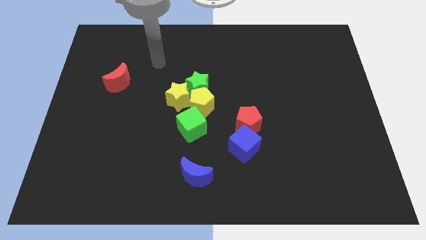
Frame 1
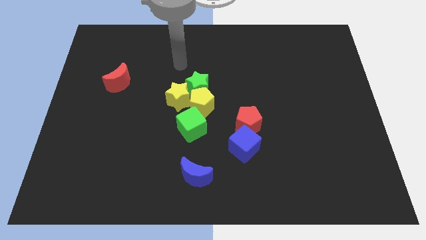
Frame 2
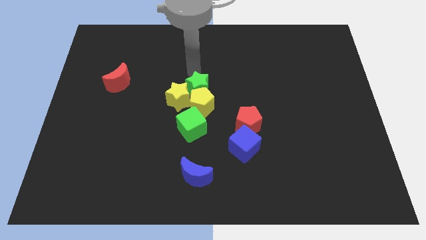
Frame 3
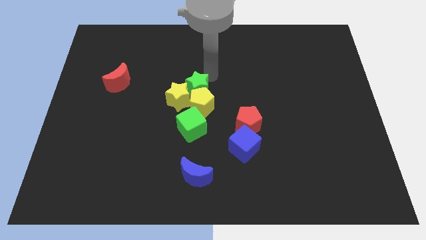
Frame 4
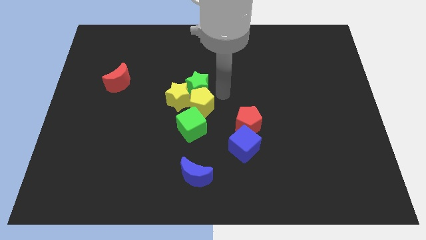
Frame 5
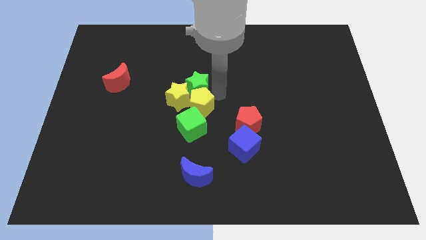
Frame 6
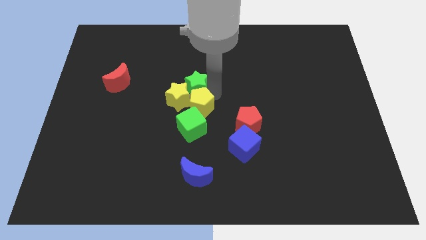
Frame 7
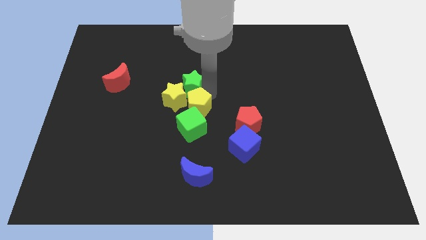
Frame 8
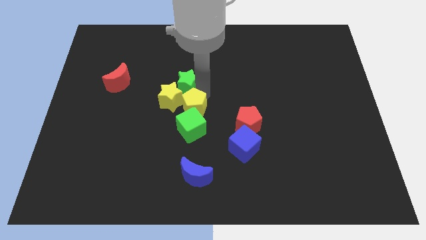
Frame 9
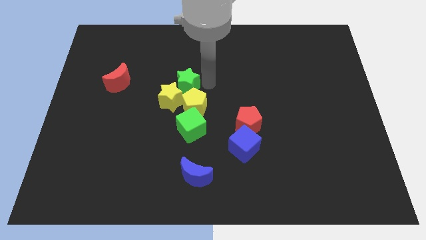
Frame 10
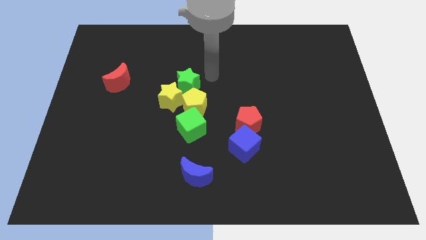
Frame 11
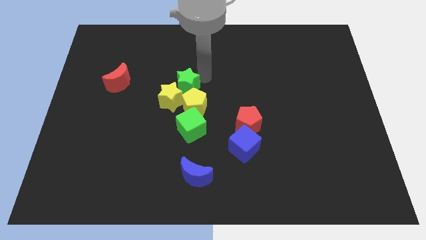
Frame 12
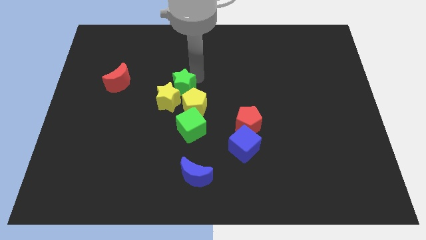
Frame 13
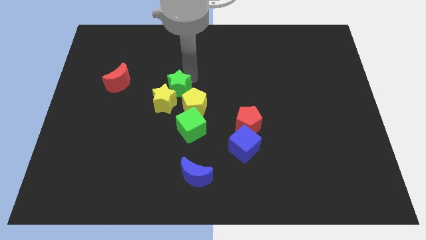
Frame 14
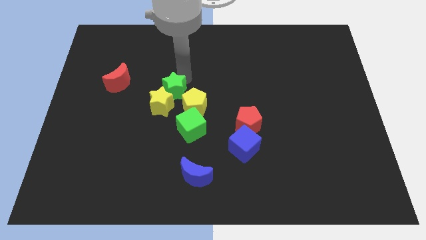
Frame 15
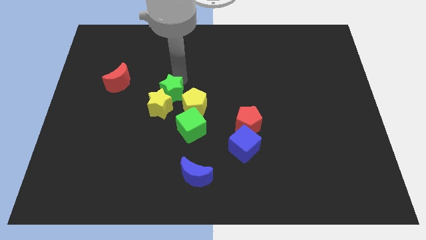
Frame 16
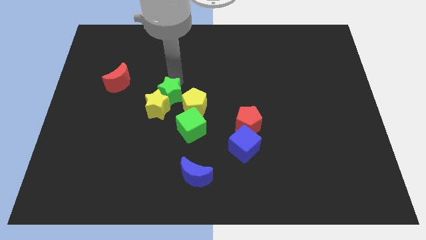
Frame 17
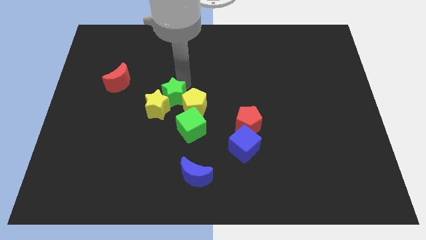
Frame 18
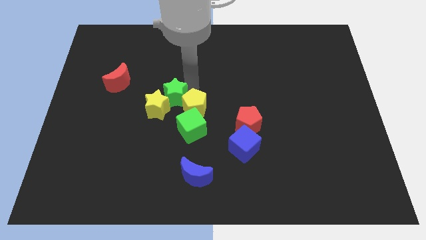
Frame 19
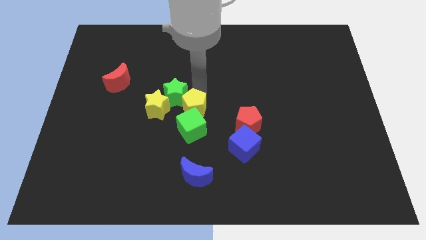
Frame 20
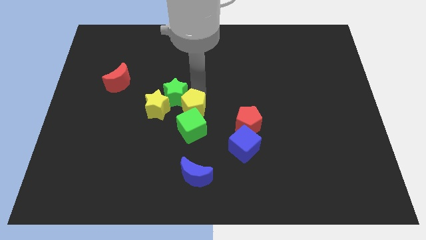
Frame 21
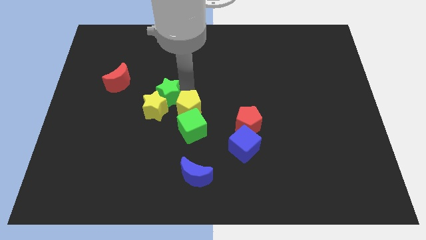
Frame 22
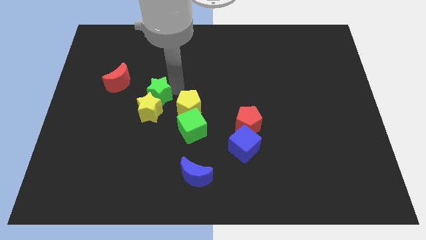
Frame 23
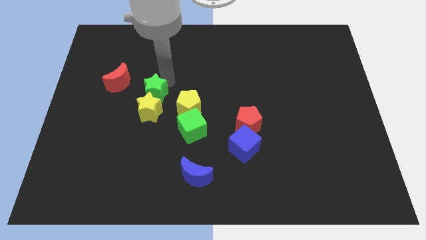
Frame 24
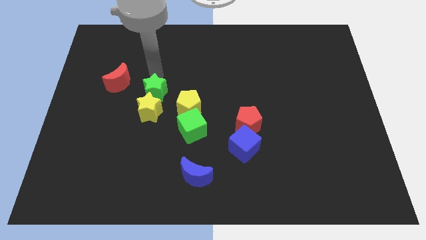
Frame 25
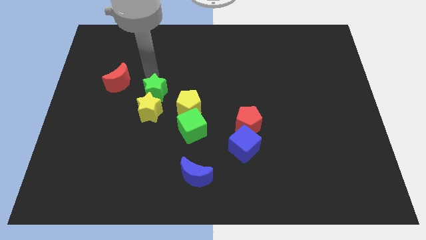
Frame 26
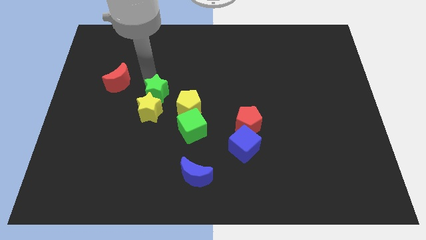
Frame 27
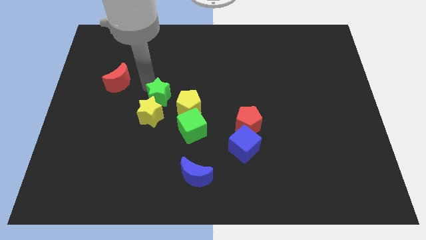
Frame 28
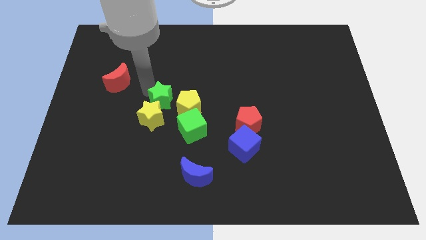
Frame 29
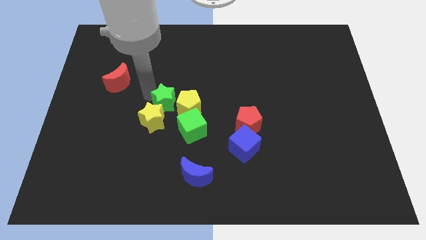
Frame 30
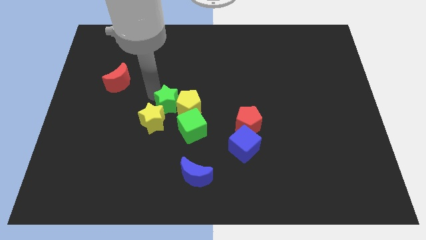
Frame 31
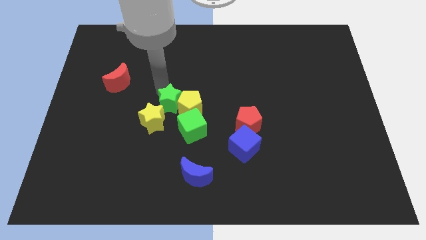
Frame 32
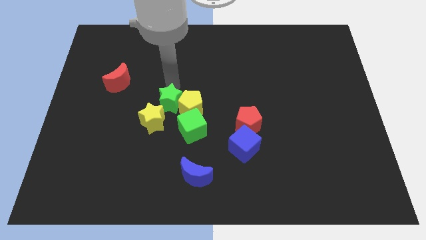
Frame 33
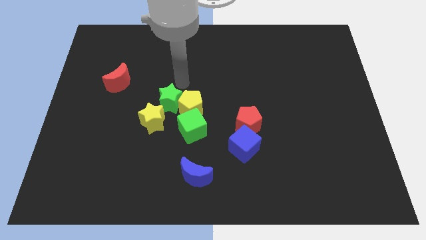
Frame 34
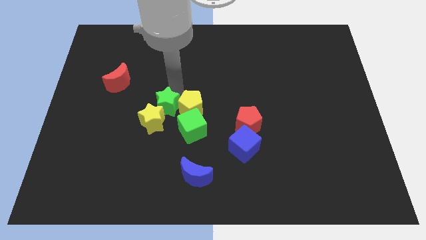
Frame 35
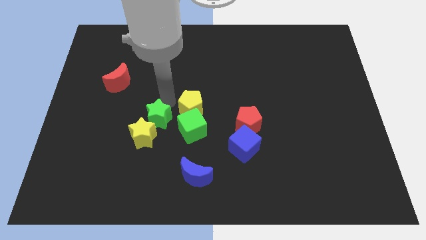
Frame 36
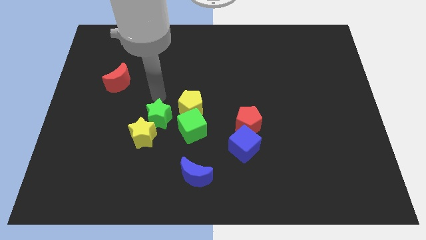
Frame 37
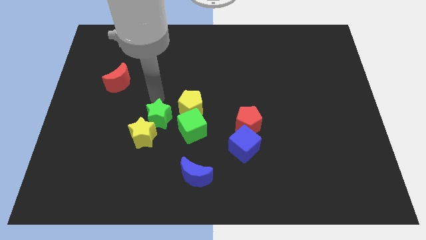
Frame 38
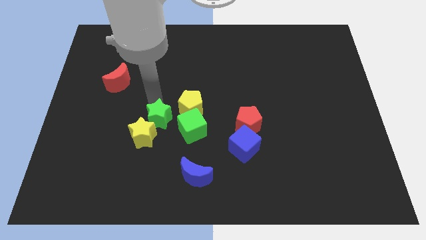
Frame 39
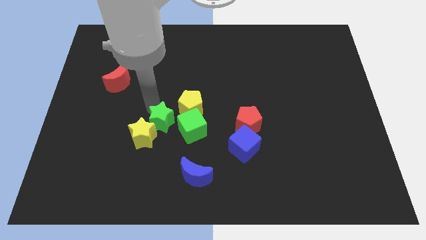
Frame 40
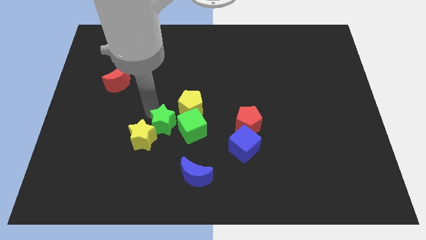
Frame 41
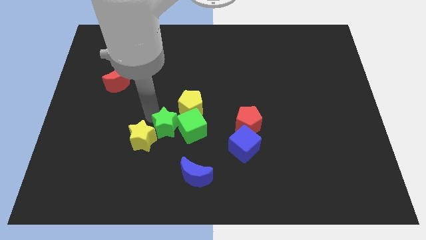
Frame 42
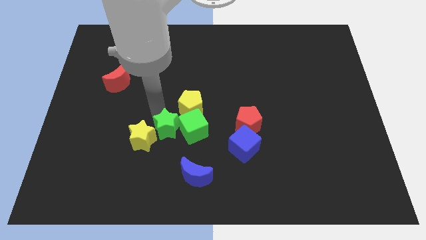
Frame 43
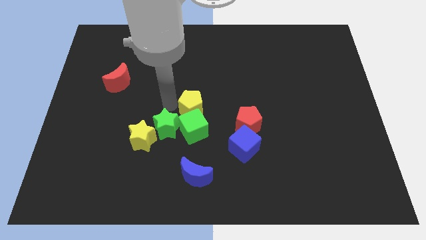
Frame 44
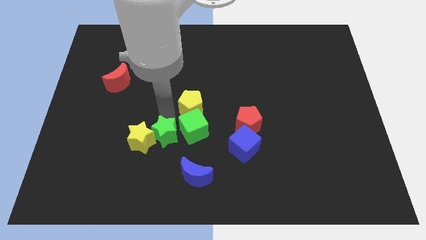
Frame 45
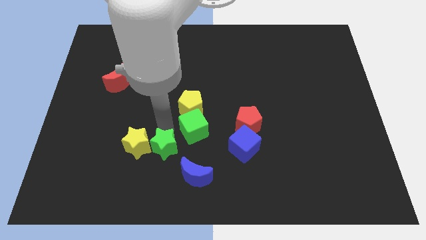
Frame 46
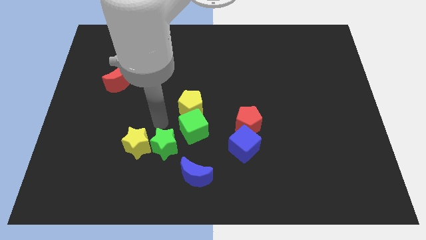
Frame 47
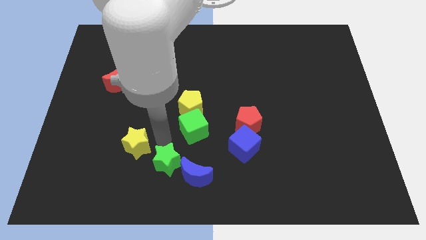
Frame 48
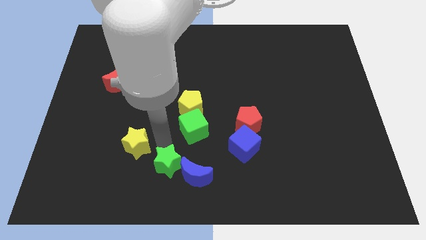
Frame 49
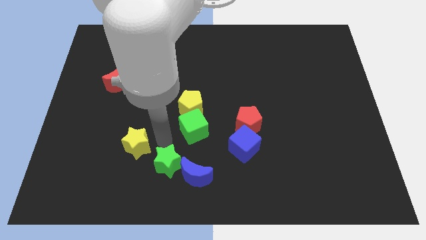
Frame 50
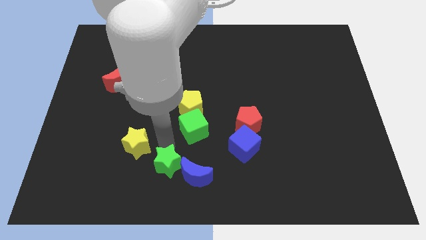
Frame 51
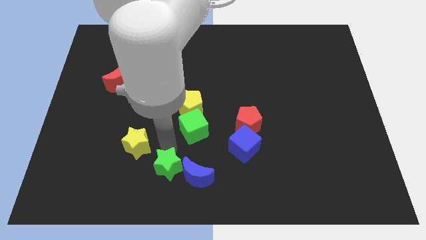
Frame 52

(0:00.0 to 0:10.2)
move the green star to the bottom side

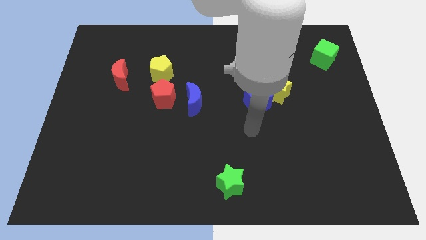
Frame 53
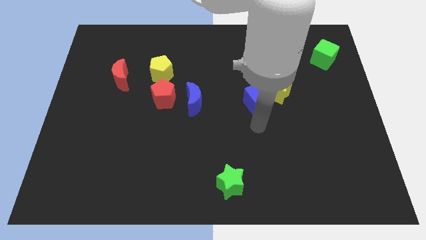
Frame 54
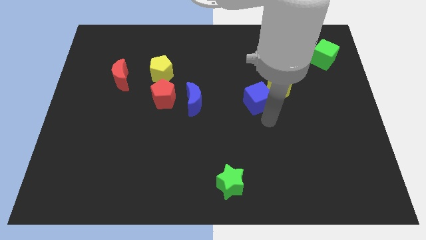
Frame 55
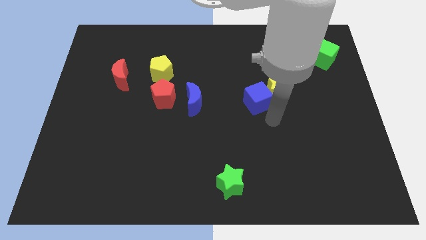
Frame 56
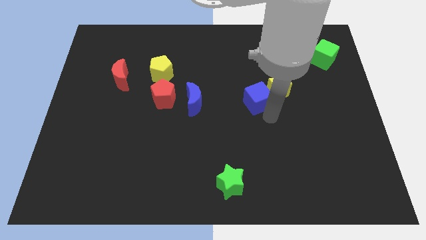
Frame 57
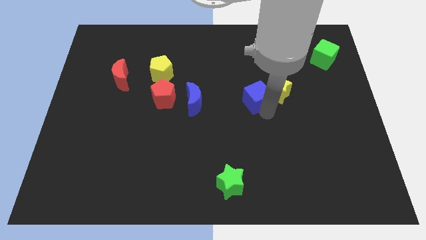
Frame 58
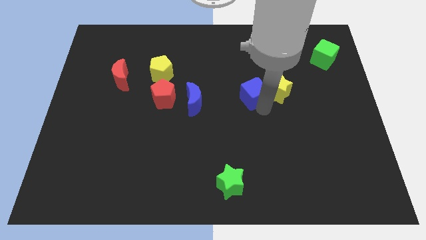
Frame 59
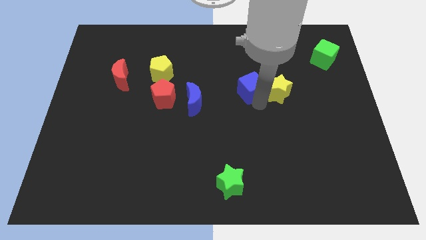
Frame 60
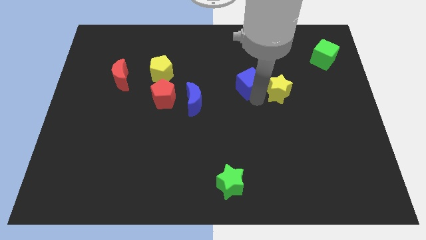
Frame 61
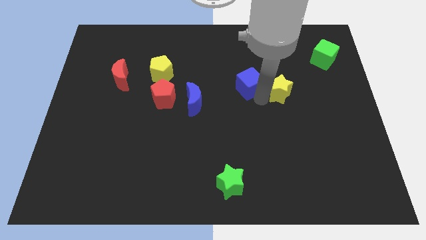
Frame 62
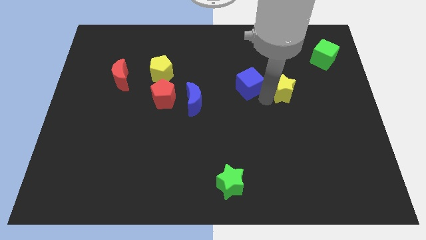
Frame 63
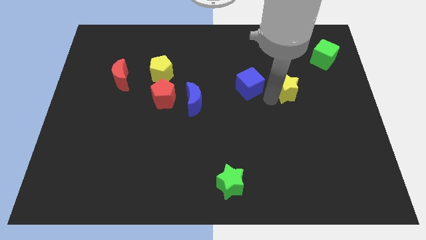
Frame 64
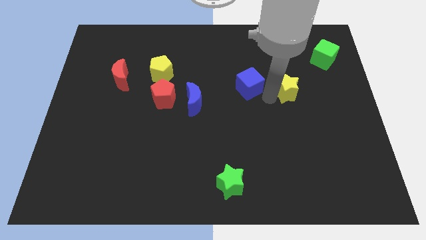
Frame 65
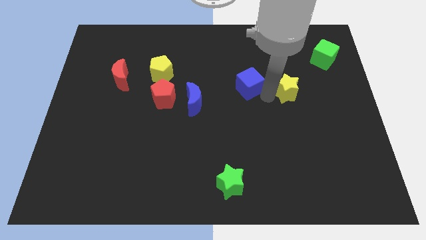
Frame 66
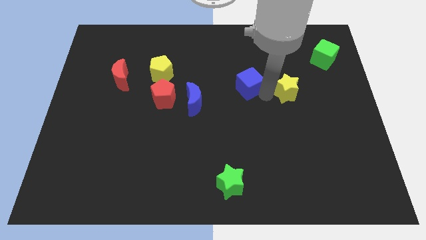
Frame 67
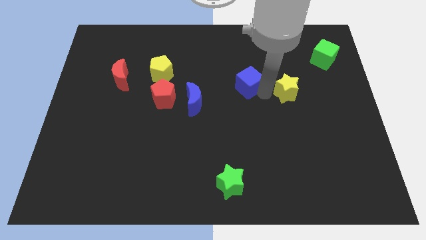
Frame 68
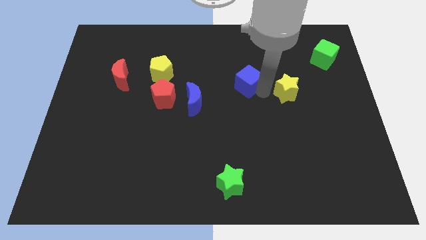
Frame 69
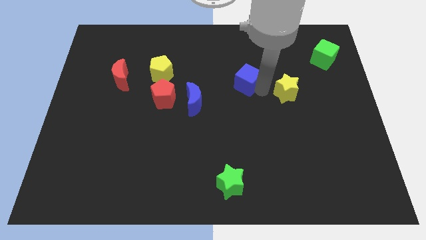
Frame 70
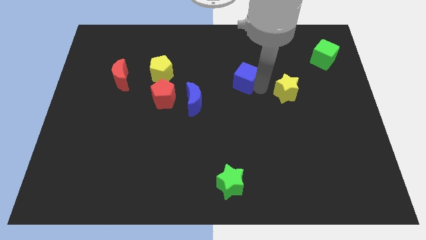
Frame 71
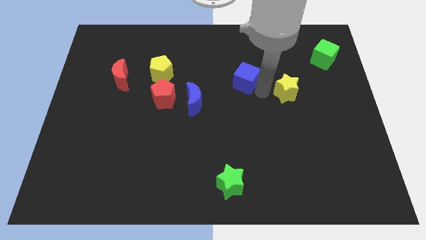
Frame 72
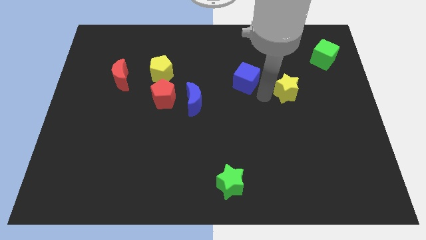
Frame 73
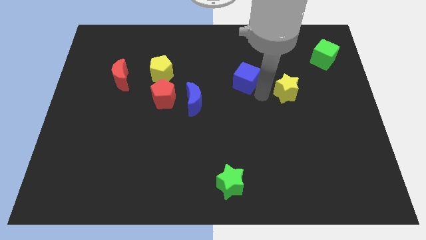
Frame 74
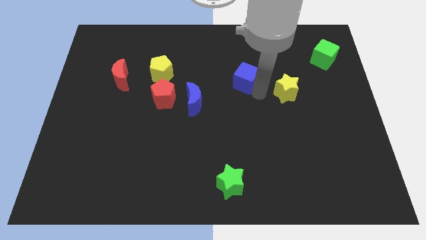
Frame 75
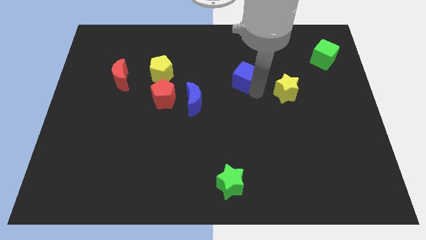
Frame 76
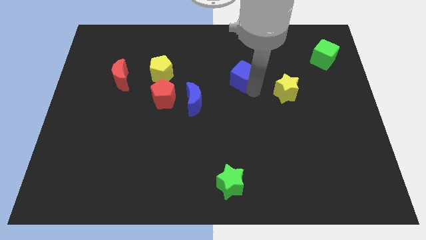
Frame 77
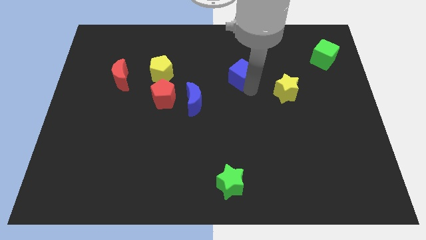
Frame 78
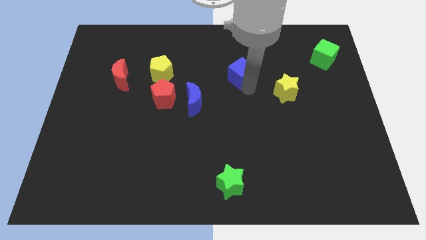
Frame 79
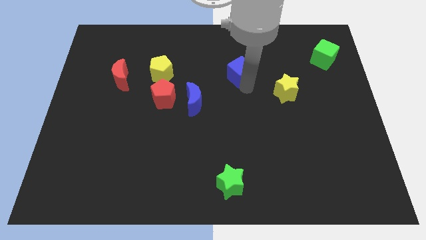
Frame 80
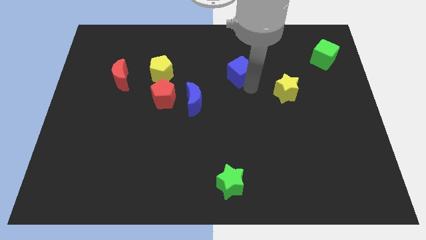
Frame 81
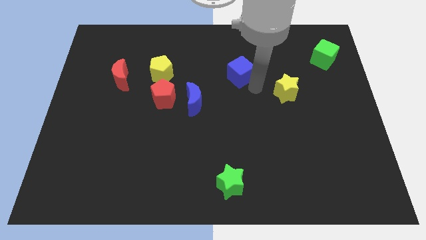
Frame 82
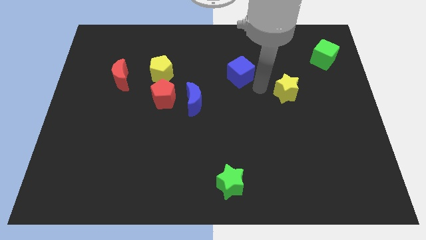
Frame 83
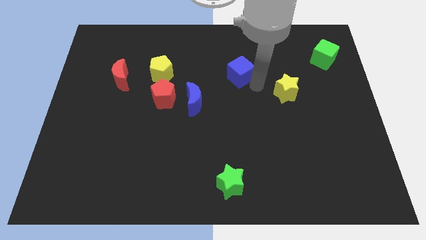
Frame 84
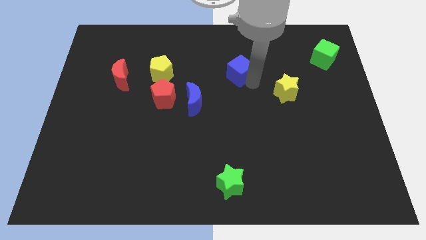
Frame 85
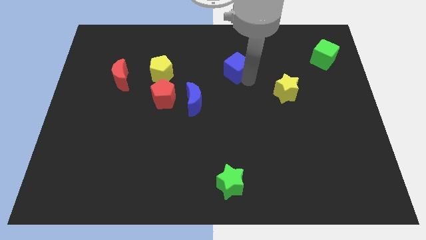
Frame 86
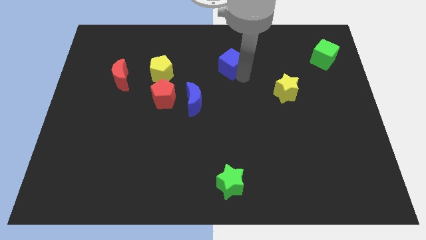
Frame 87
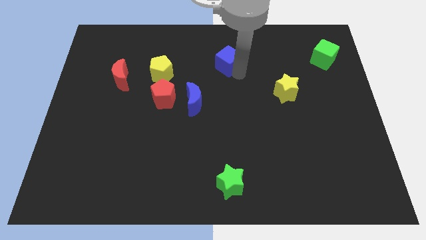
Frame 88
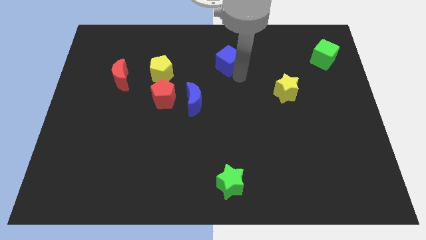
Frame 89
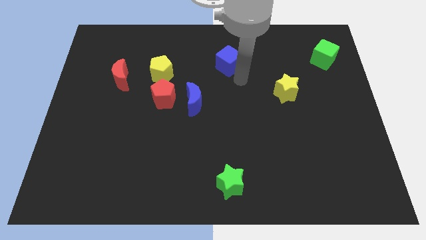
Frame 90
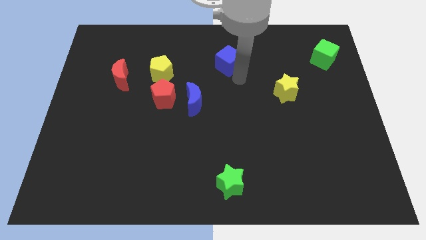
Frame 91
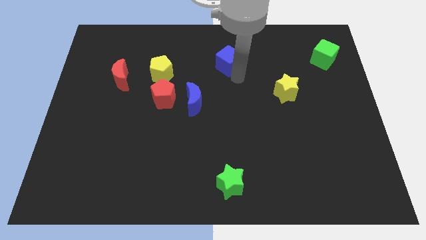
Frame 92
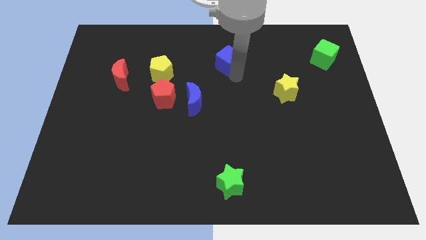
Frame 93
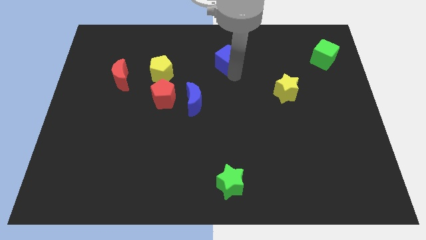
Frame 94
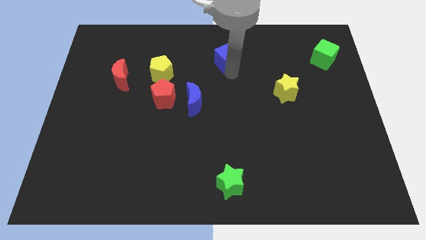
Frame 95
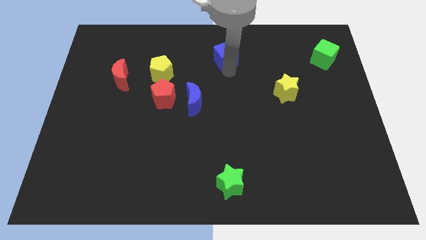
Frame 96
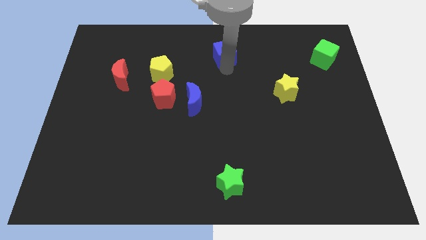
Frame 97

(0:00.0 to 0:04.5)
push the blue cube to the top
